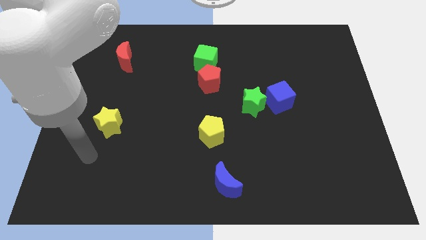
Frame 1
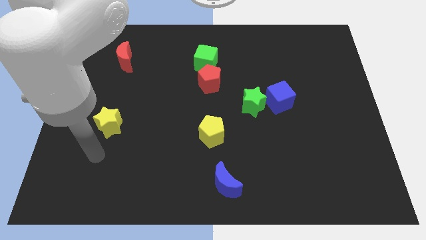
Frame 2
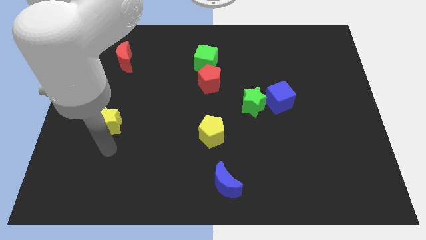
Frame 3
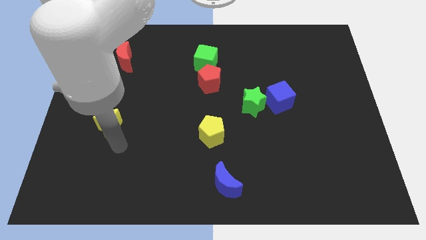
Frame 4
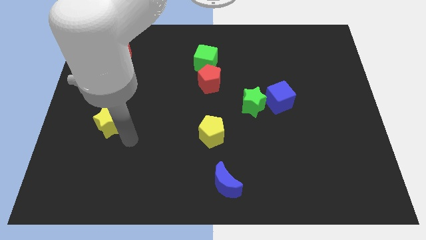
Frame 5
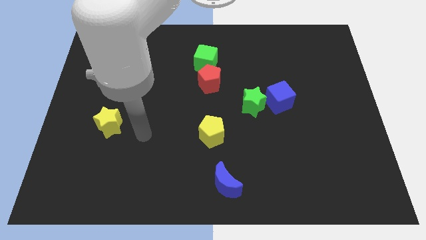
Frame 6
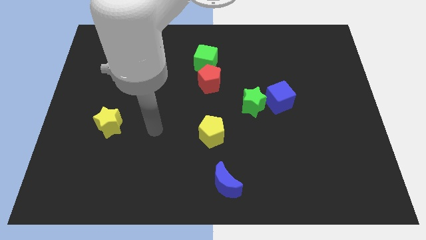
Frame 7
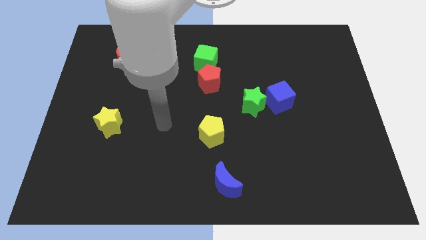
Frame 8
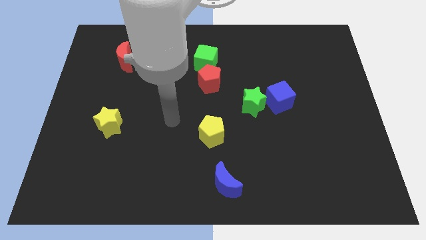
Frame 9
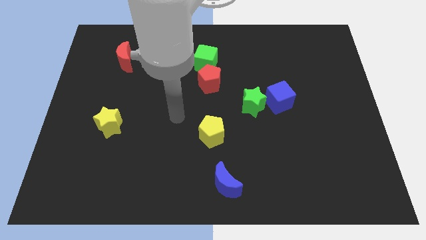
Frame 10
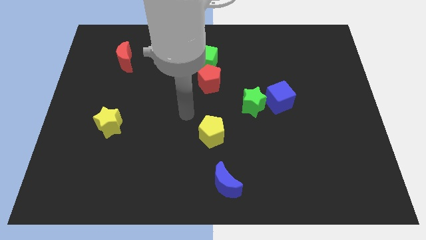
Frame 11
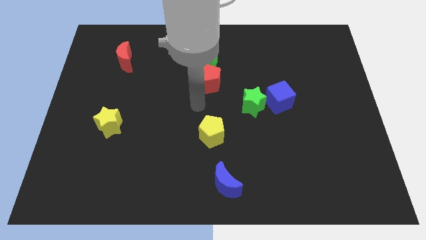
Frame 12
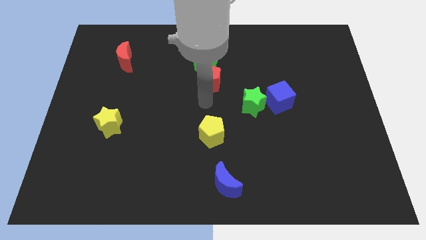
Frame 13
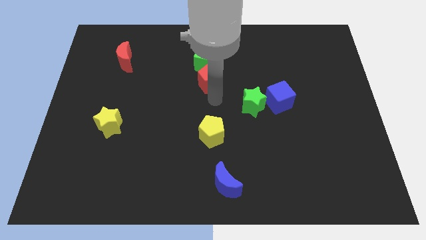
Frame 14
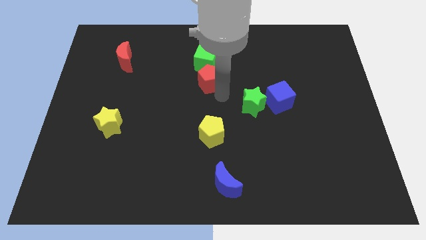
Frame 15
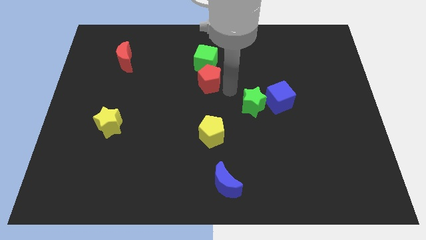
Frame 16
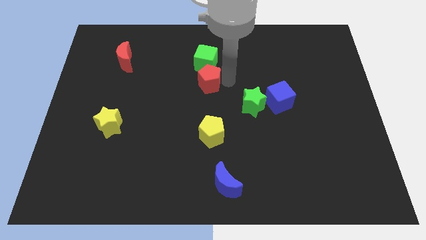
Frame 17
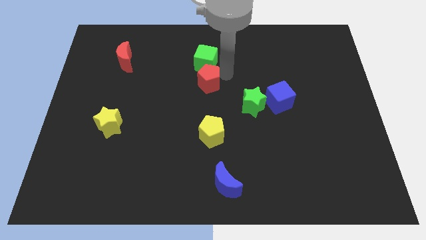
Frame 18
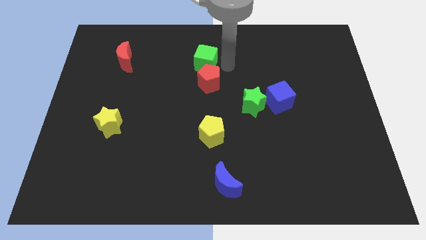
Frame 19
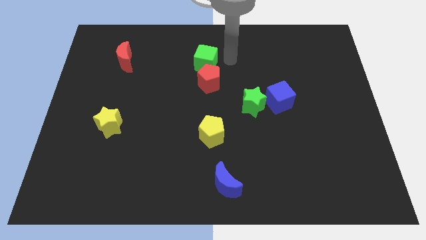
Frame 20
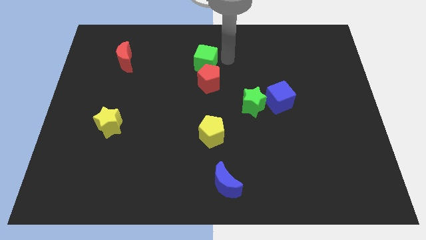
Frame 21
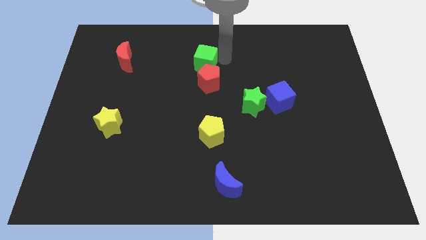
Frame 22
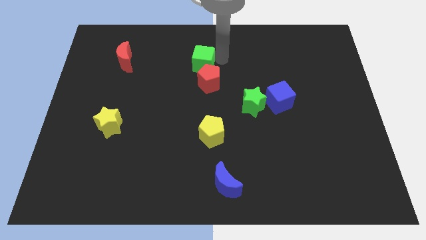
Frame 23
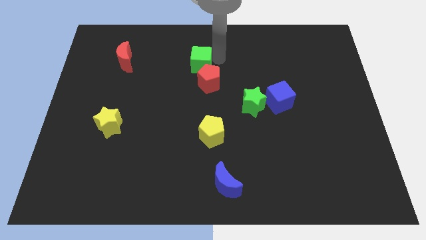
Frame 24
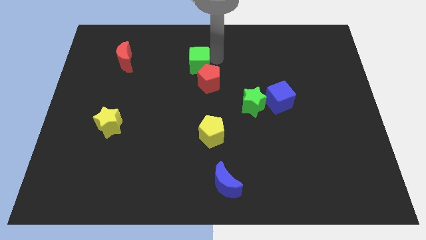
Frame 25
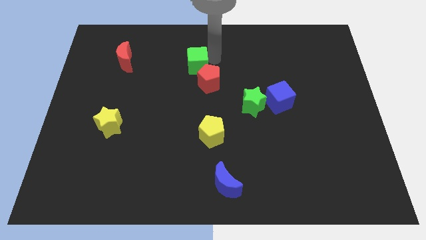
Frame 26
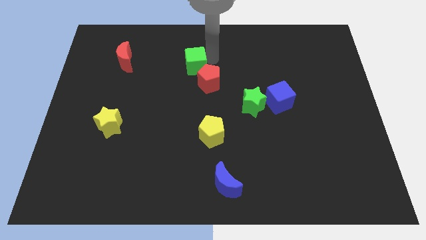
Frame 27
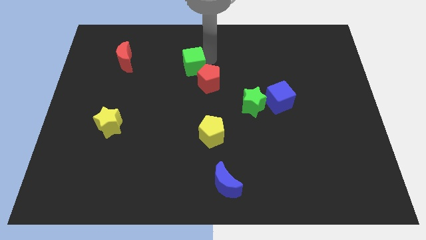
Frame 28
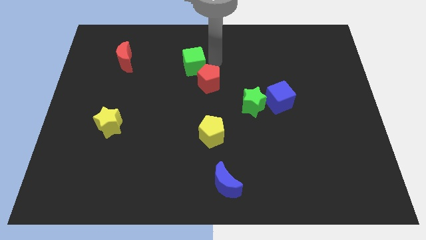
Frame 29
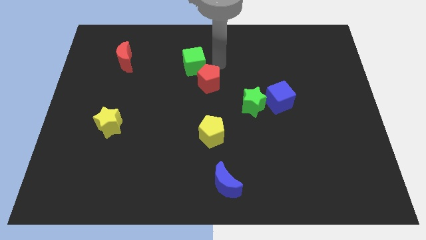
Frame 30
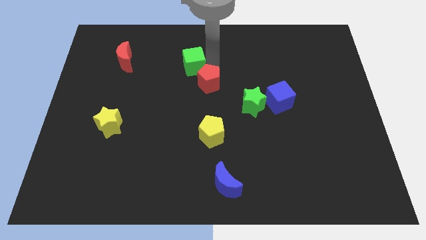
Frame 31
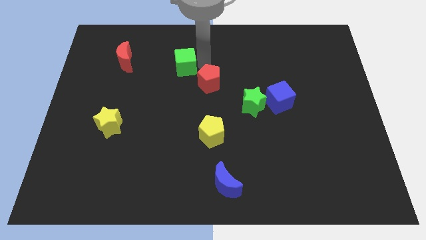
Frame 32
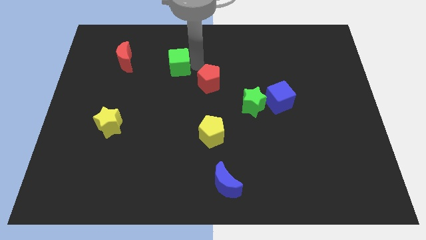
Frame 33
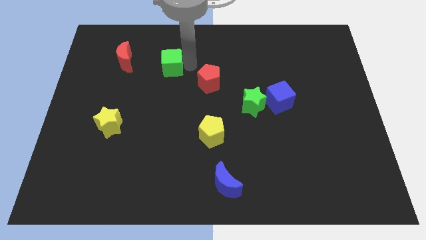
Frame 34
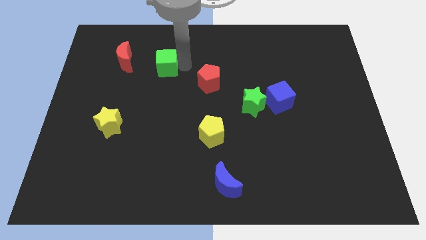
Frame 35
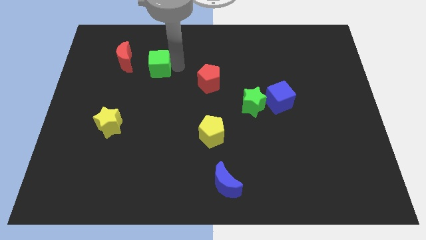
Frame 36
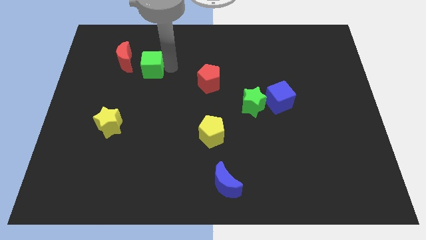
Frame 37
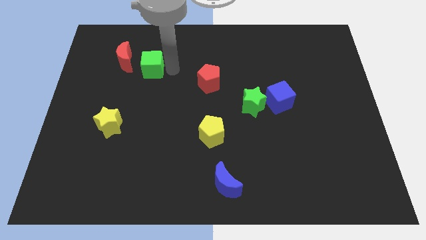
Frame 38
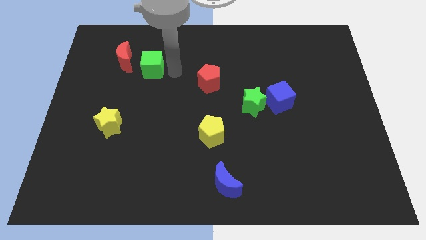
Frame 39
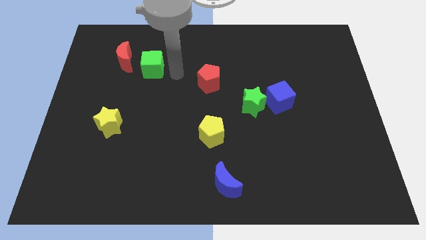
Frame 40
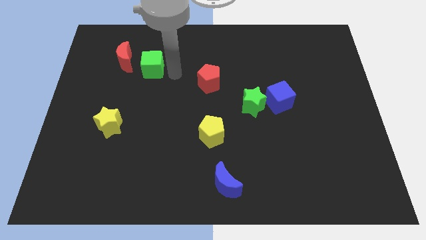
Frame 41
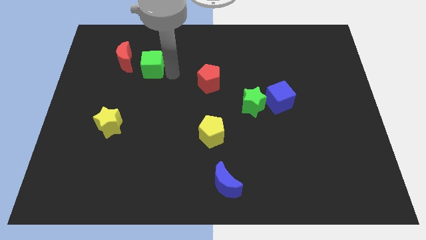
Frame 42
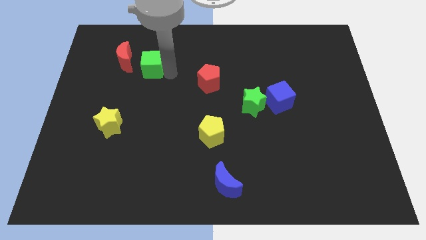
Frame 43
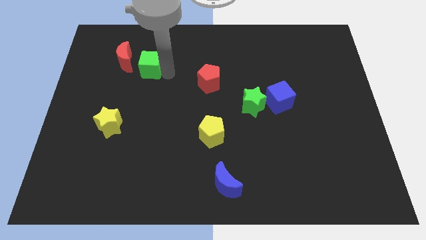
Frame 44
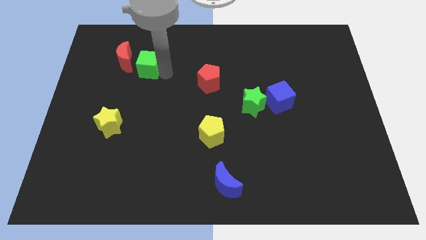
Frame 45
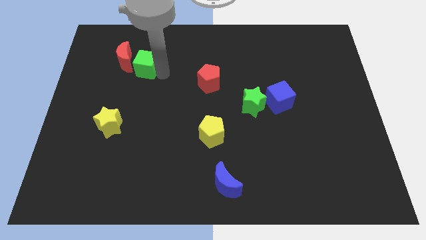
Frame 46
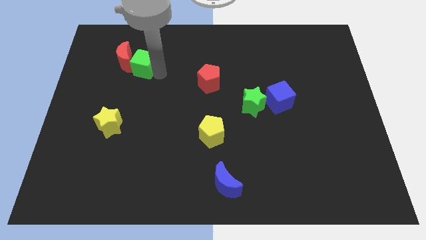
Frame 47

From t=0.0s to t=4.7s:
move the green cube towards the red moon

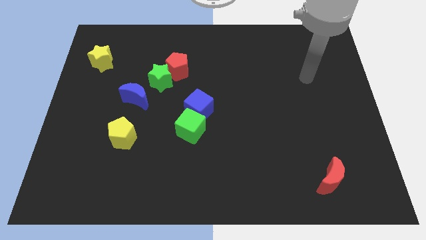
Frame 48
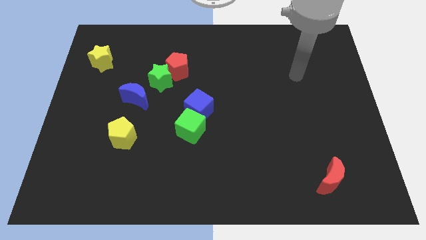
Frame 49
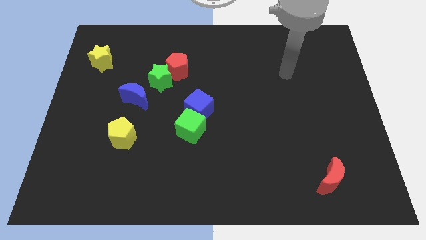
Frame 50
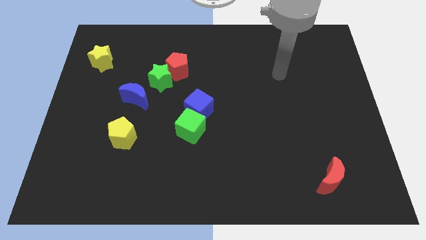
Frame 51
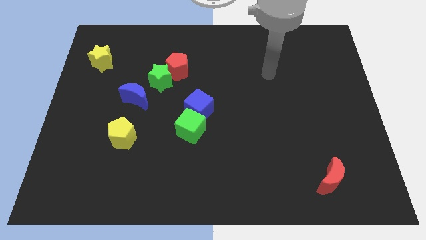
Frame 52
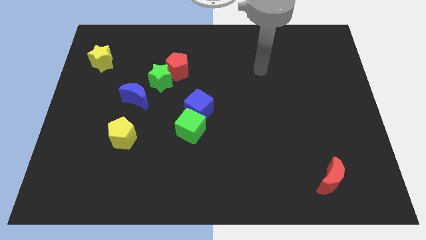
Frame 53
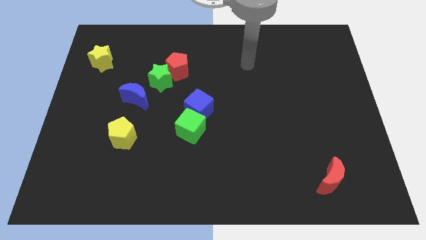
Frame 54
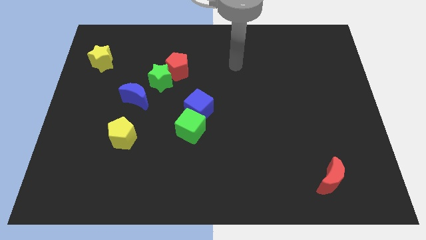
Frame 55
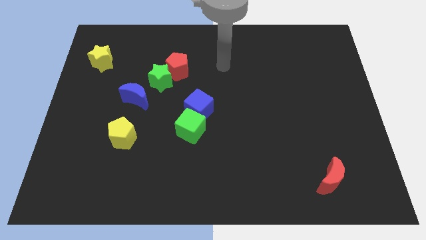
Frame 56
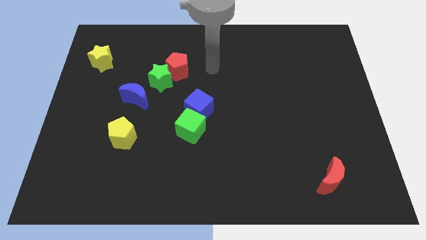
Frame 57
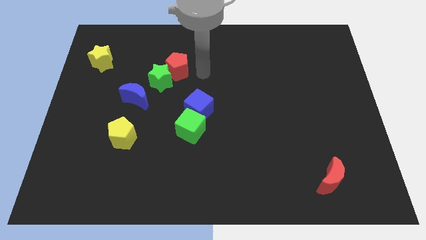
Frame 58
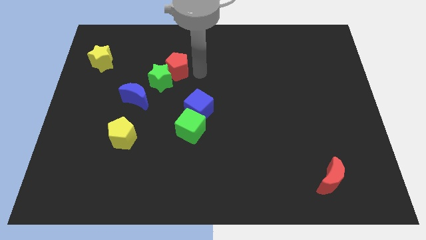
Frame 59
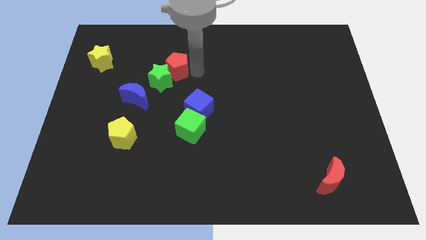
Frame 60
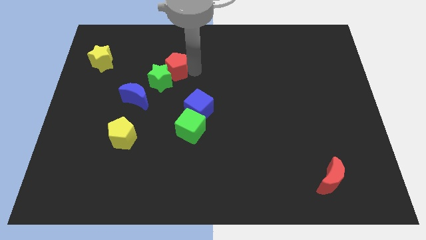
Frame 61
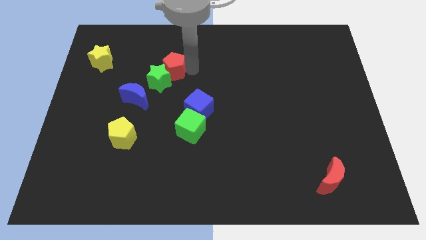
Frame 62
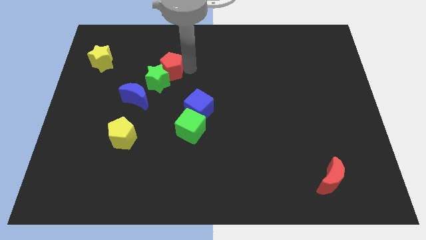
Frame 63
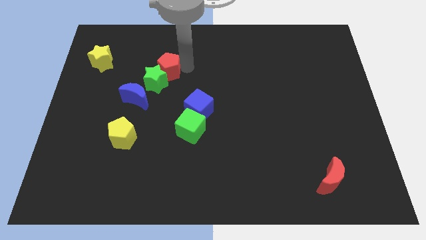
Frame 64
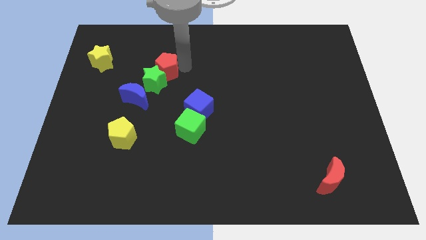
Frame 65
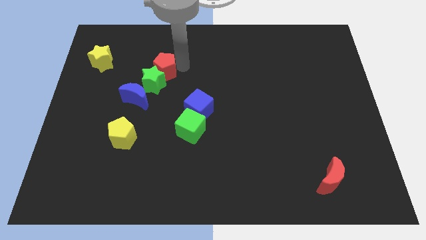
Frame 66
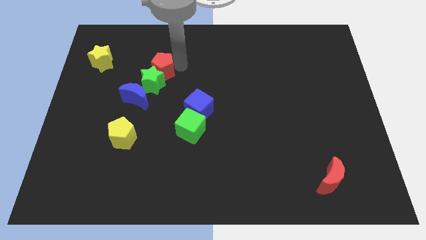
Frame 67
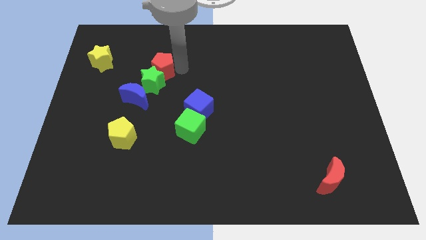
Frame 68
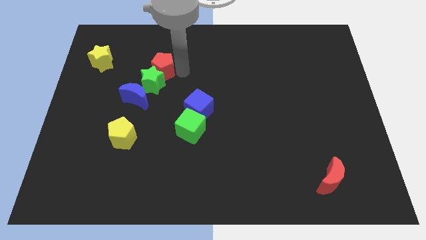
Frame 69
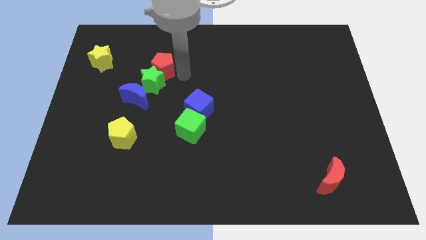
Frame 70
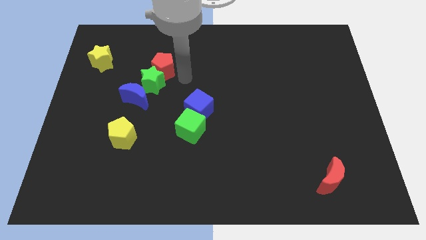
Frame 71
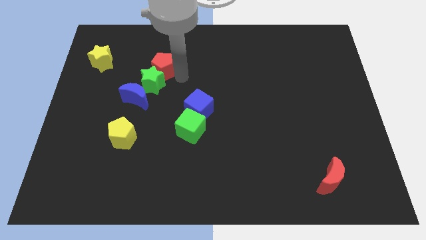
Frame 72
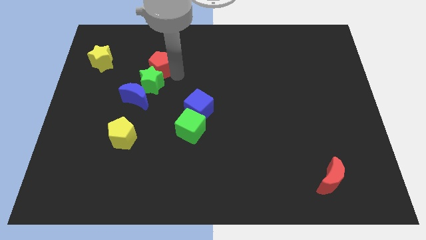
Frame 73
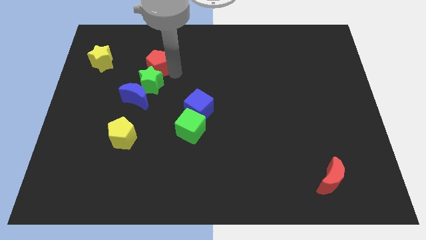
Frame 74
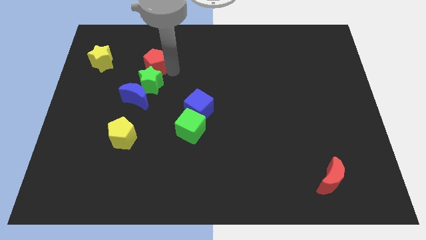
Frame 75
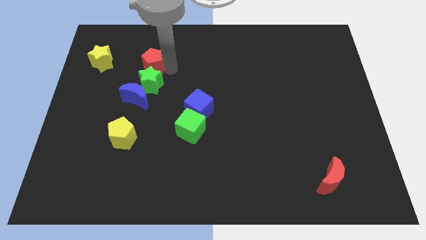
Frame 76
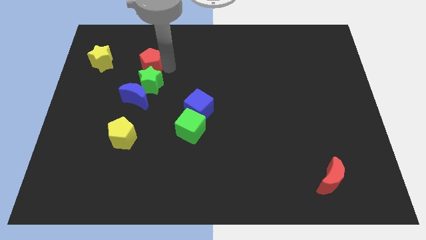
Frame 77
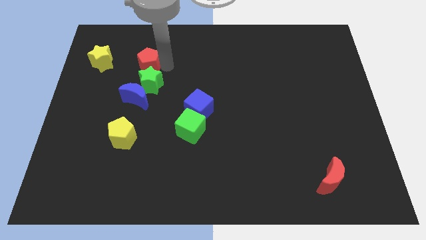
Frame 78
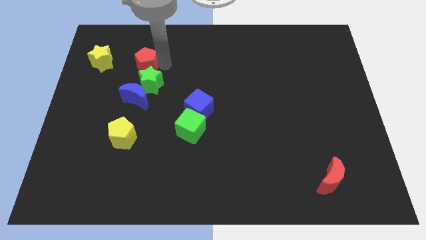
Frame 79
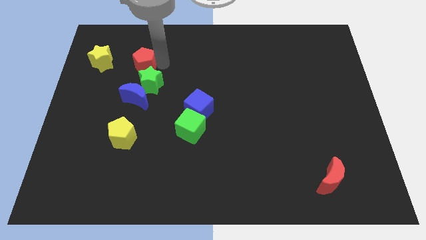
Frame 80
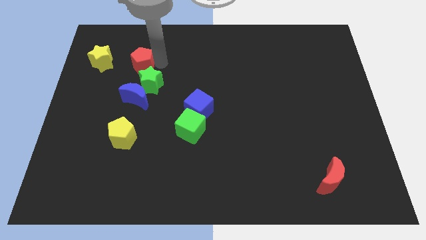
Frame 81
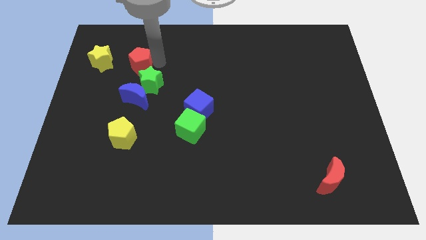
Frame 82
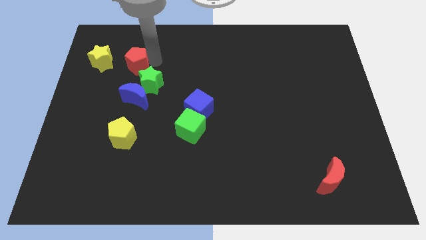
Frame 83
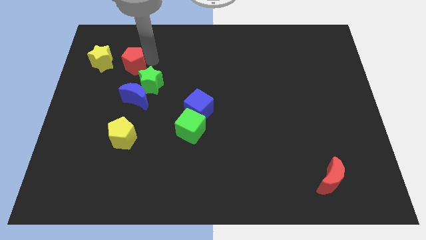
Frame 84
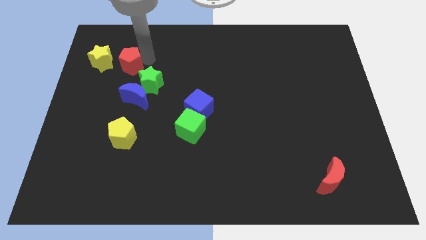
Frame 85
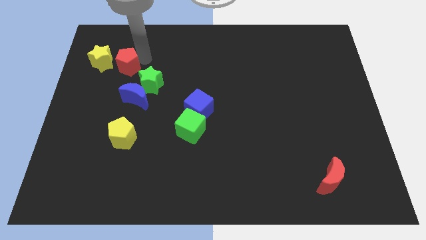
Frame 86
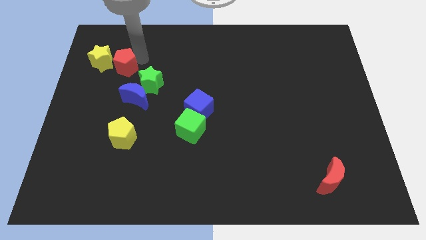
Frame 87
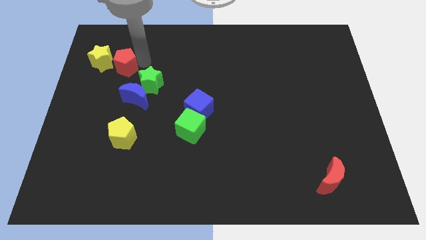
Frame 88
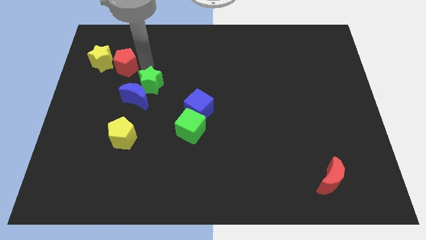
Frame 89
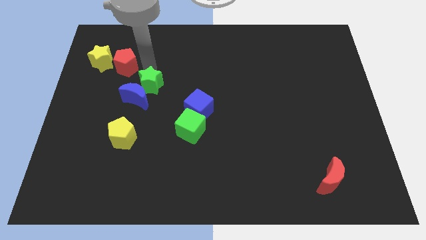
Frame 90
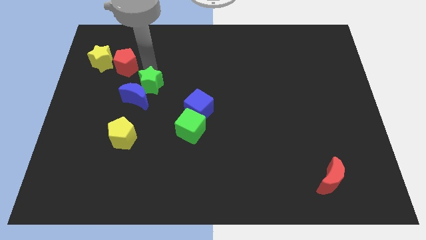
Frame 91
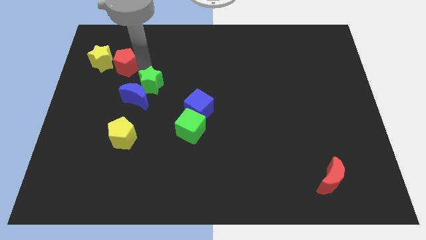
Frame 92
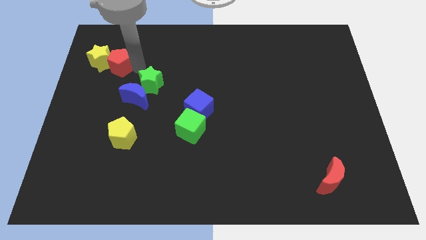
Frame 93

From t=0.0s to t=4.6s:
move the red pentagon close to the yellow star
